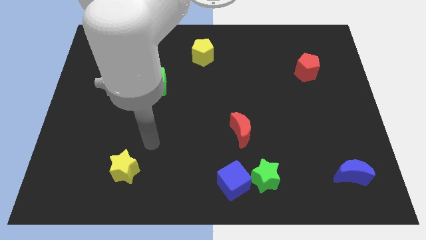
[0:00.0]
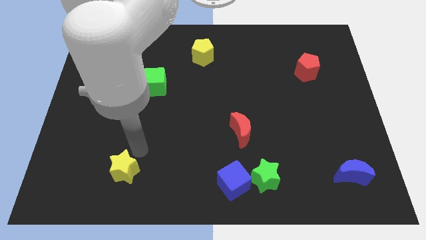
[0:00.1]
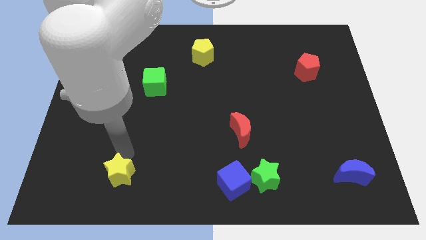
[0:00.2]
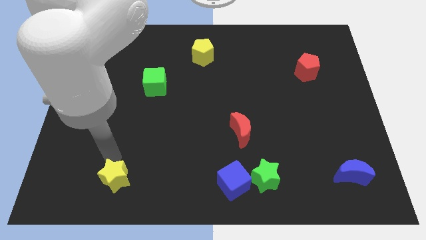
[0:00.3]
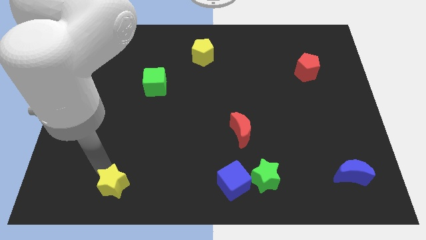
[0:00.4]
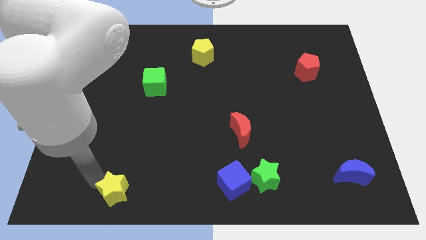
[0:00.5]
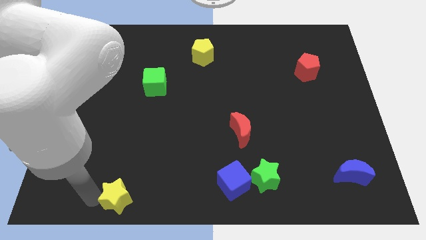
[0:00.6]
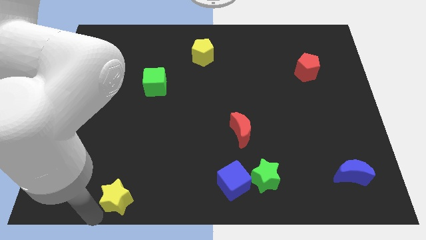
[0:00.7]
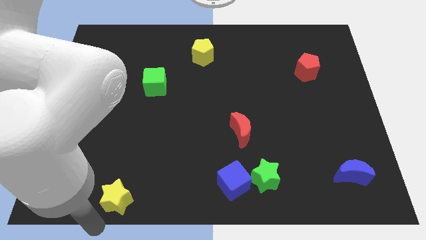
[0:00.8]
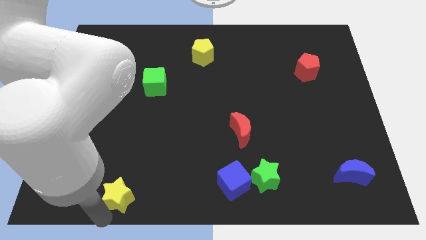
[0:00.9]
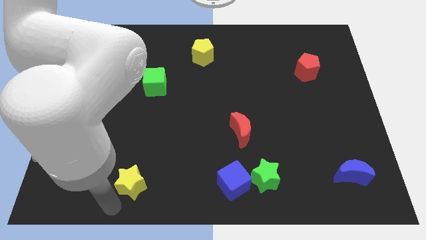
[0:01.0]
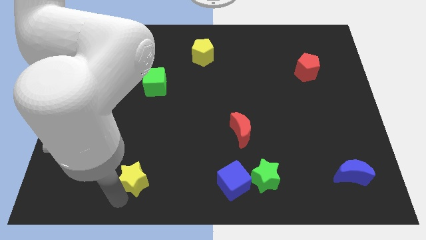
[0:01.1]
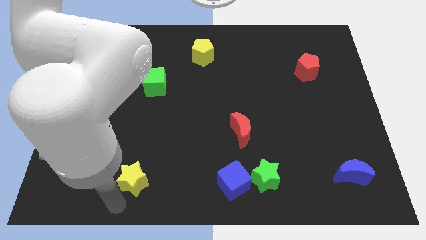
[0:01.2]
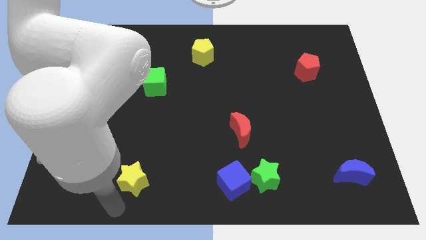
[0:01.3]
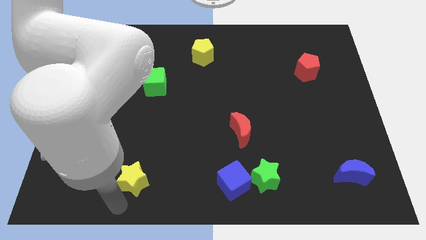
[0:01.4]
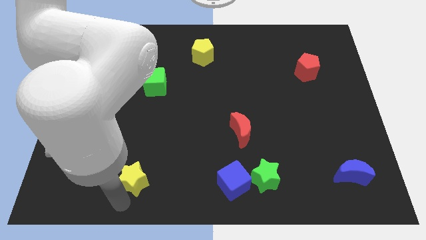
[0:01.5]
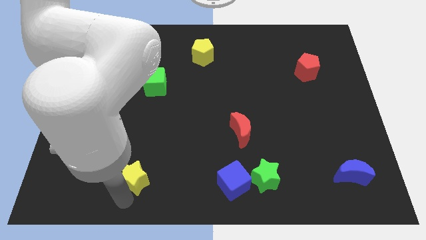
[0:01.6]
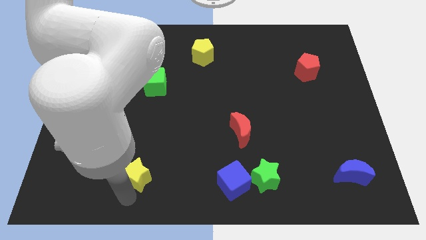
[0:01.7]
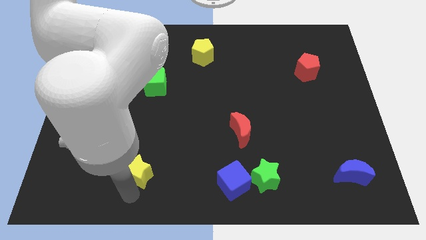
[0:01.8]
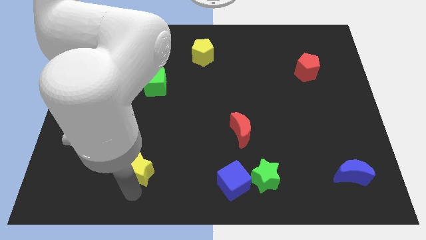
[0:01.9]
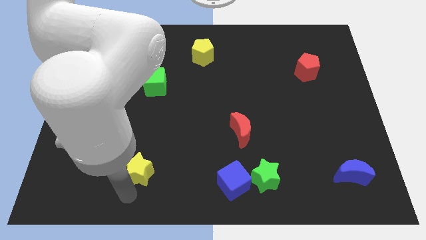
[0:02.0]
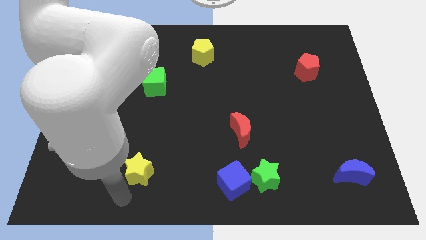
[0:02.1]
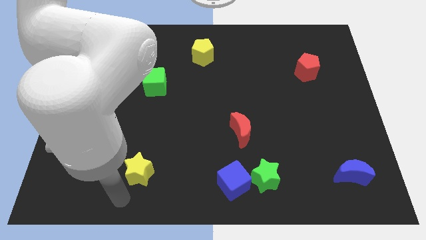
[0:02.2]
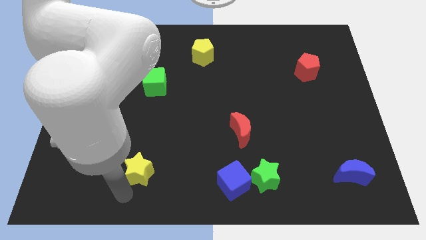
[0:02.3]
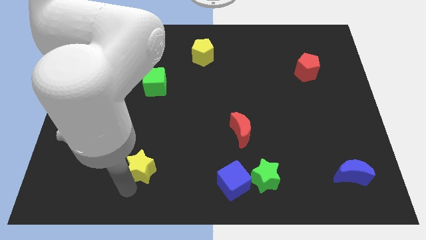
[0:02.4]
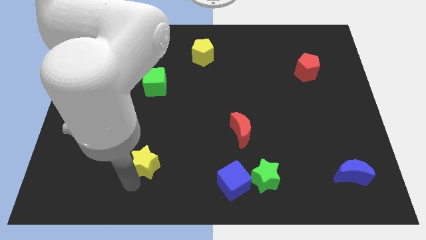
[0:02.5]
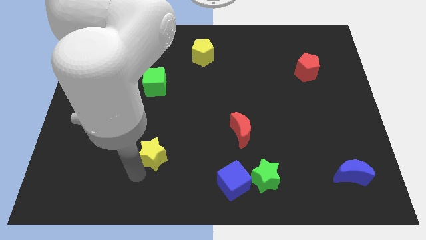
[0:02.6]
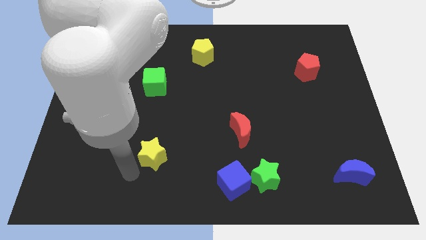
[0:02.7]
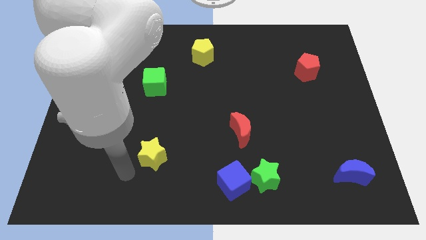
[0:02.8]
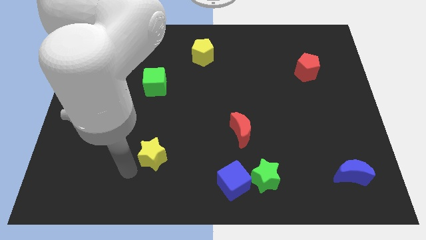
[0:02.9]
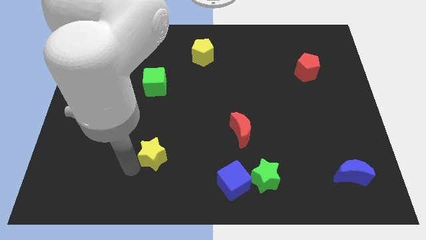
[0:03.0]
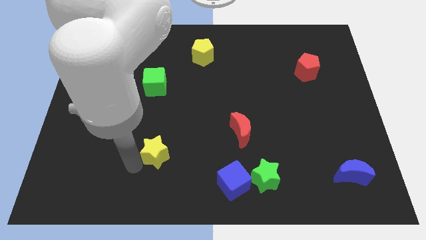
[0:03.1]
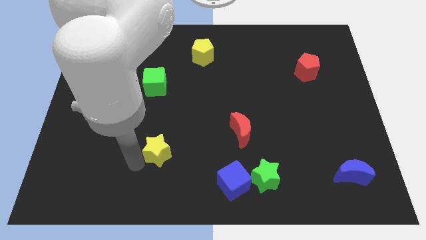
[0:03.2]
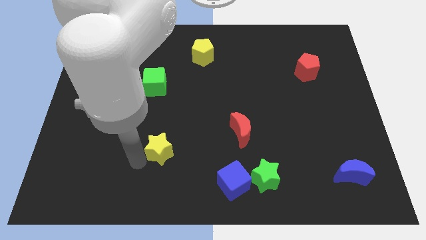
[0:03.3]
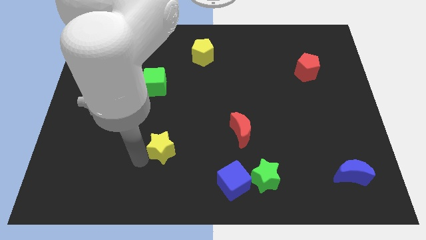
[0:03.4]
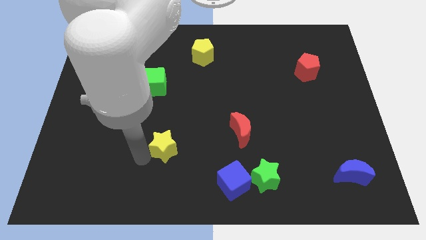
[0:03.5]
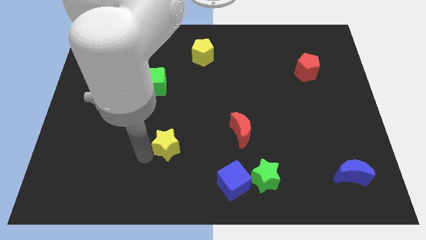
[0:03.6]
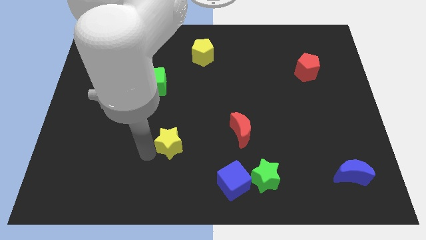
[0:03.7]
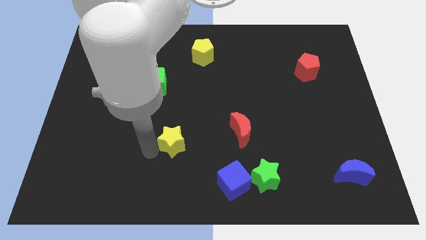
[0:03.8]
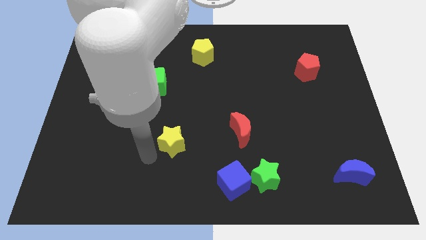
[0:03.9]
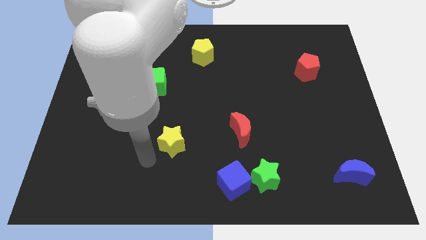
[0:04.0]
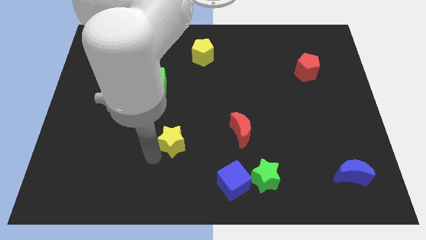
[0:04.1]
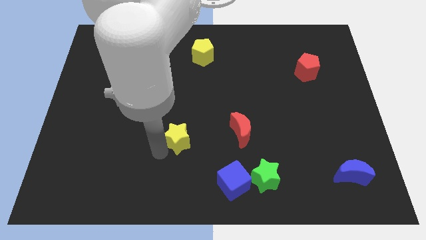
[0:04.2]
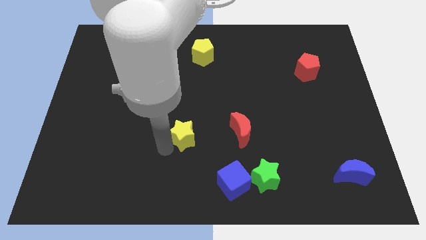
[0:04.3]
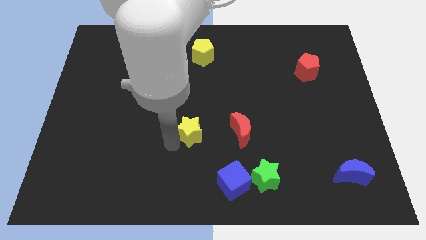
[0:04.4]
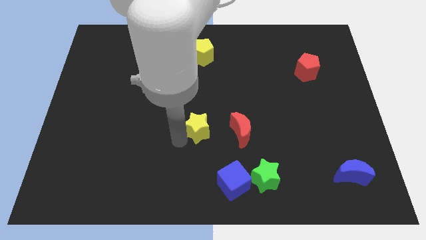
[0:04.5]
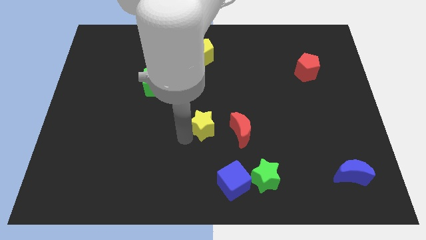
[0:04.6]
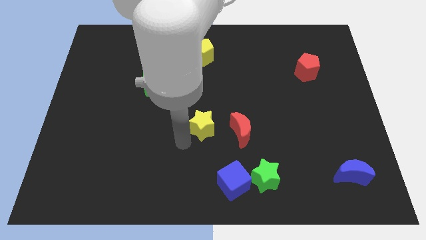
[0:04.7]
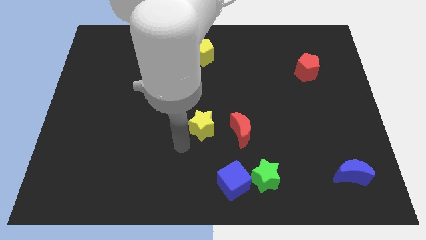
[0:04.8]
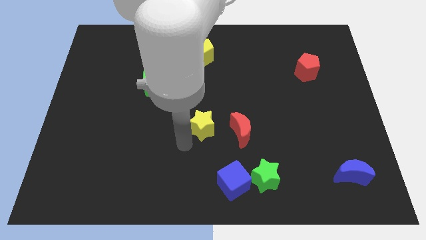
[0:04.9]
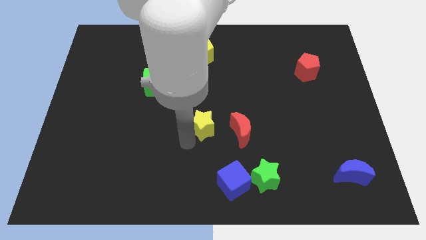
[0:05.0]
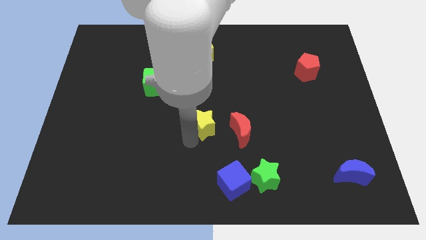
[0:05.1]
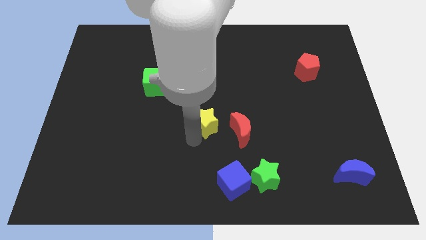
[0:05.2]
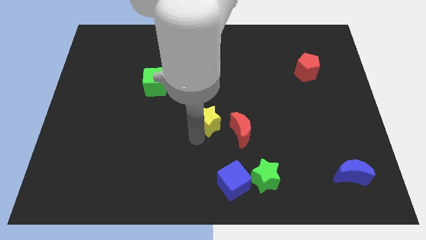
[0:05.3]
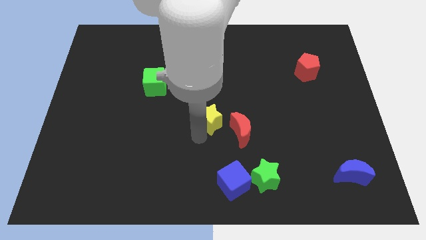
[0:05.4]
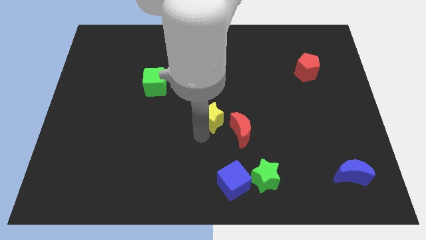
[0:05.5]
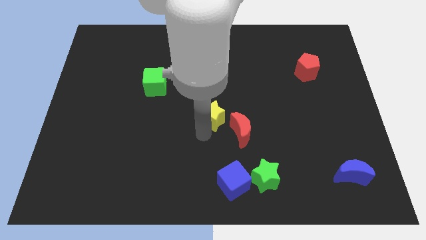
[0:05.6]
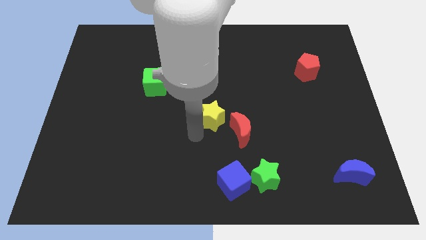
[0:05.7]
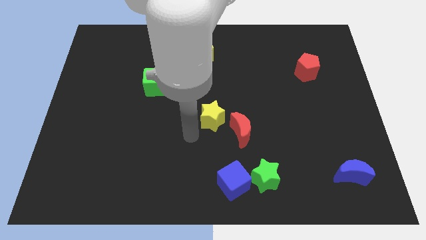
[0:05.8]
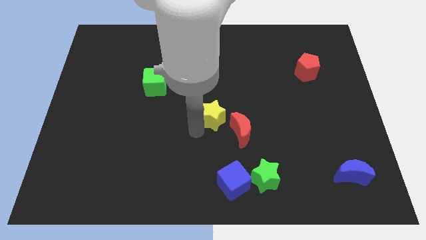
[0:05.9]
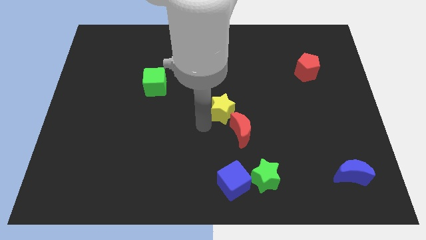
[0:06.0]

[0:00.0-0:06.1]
push the yellow star above the red moon

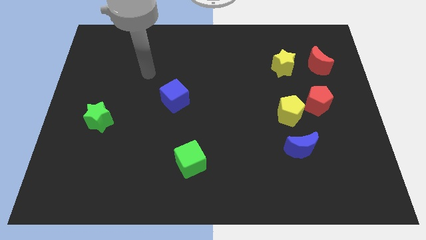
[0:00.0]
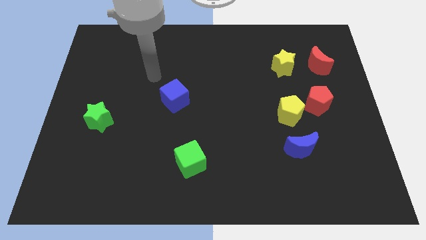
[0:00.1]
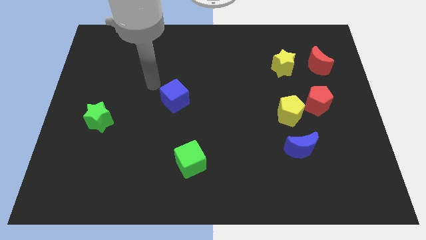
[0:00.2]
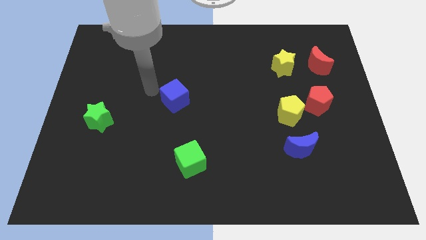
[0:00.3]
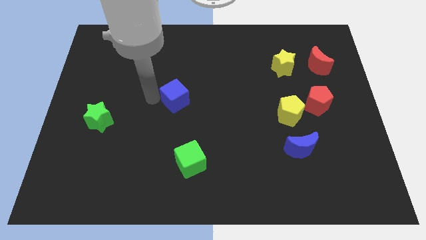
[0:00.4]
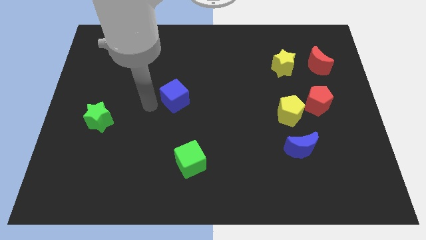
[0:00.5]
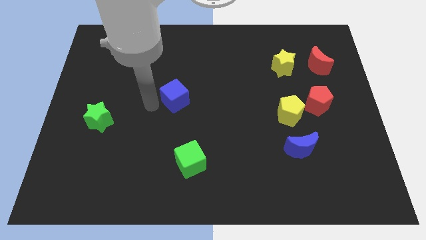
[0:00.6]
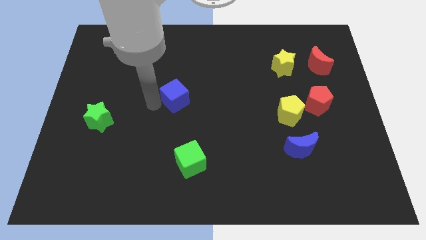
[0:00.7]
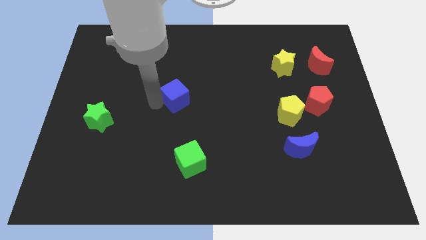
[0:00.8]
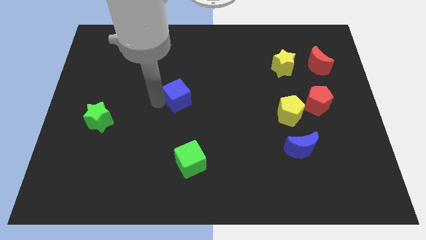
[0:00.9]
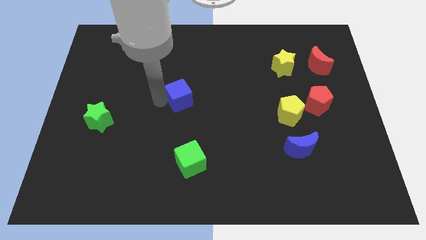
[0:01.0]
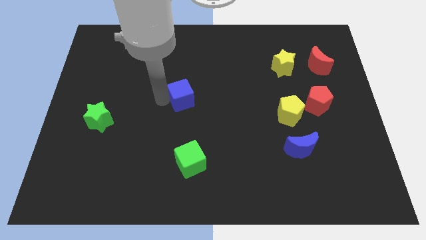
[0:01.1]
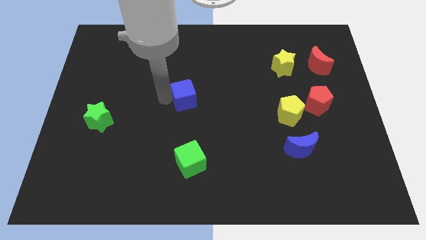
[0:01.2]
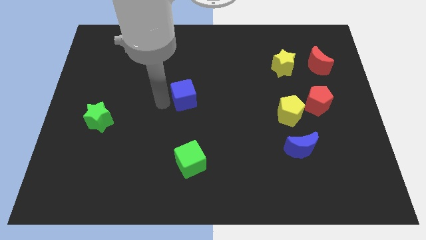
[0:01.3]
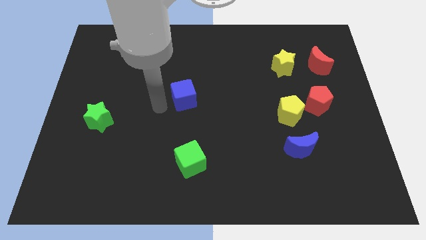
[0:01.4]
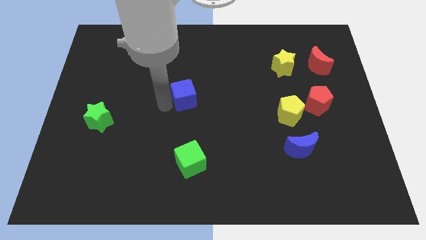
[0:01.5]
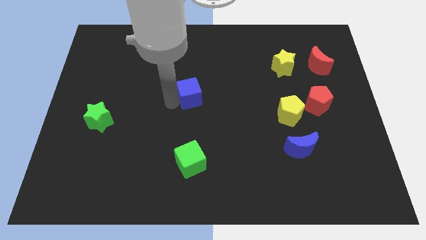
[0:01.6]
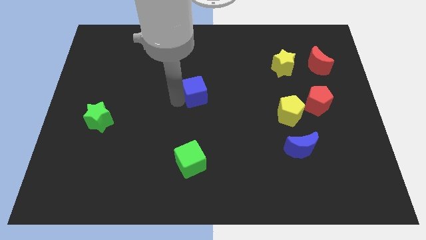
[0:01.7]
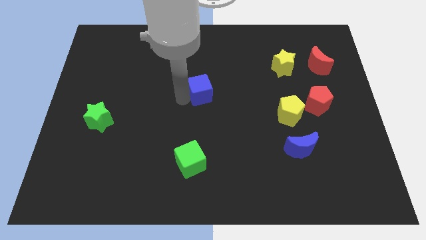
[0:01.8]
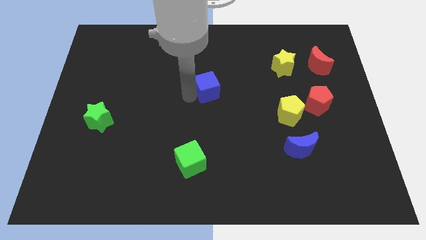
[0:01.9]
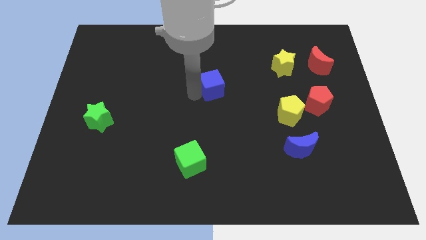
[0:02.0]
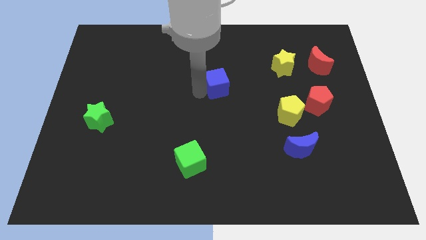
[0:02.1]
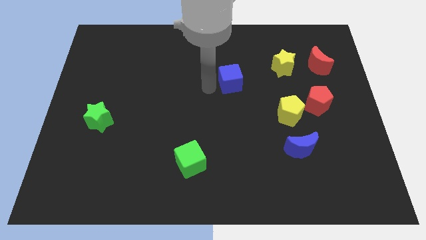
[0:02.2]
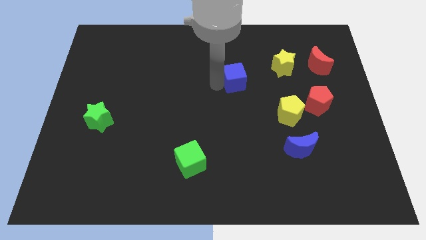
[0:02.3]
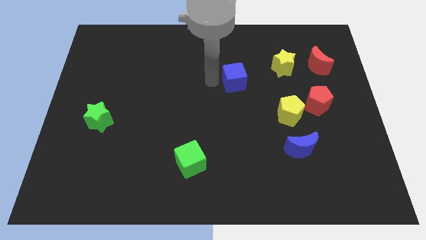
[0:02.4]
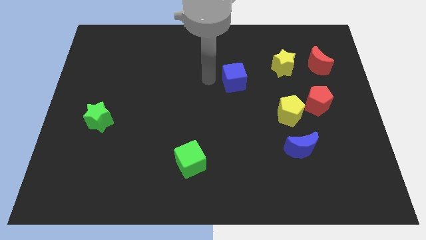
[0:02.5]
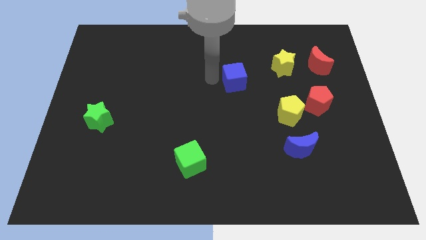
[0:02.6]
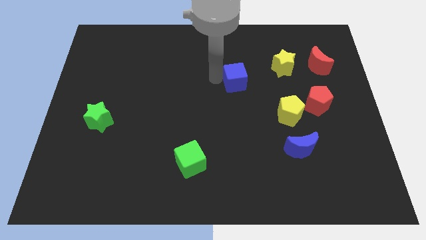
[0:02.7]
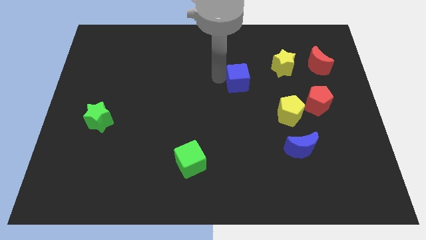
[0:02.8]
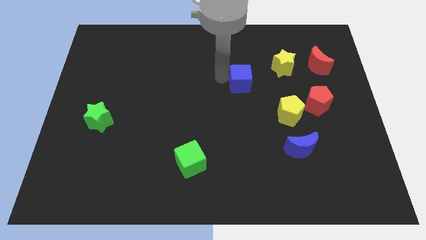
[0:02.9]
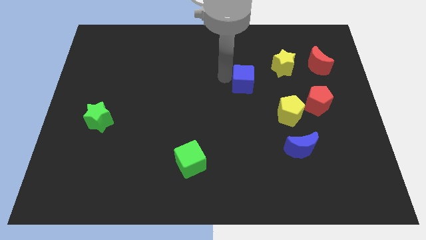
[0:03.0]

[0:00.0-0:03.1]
push the blue cube diagonally down and to the left of the yellow star
